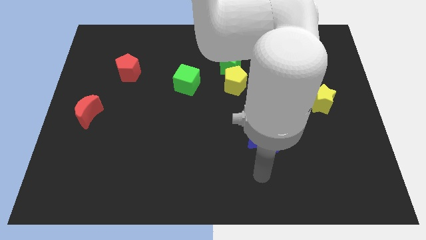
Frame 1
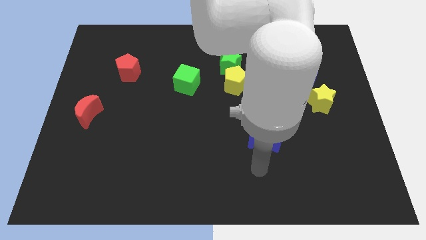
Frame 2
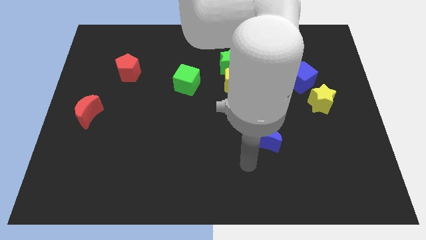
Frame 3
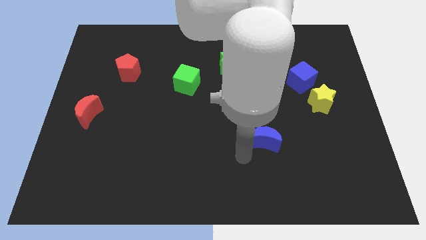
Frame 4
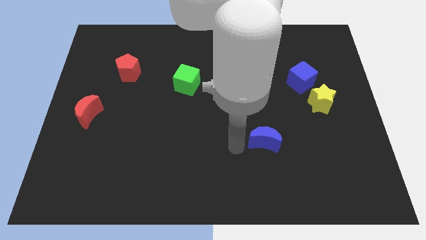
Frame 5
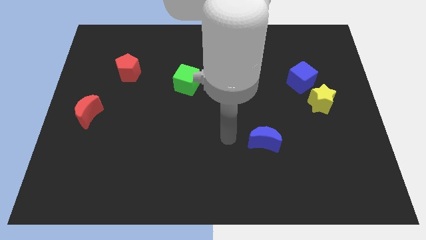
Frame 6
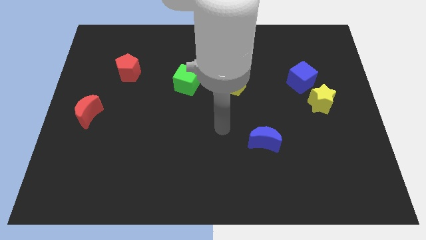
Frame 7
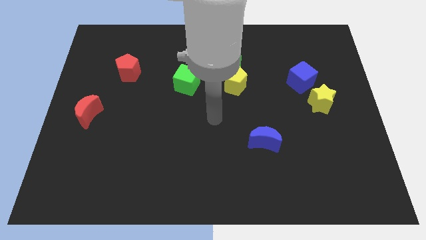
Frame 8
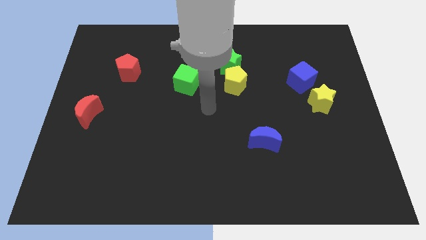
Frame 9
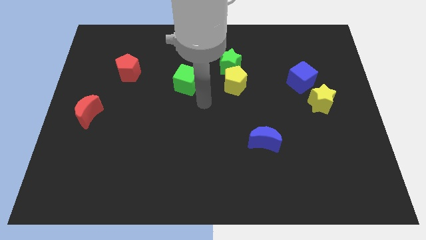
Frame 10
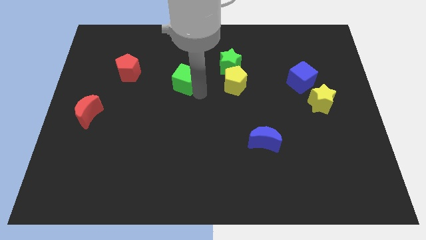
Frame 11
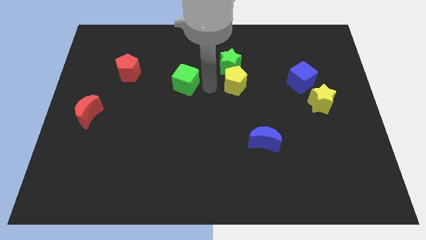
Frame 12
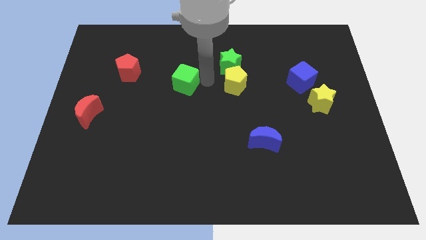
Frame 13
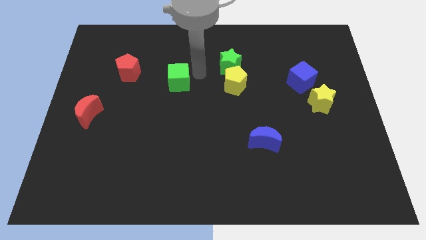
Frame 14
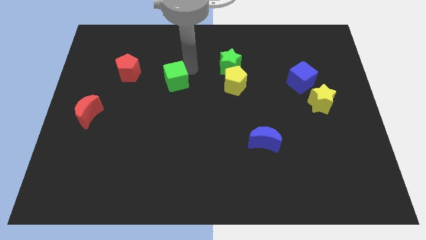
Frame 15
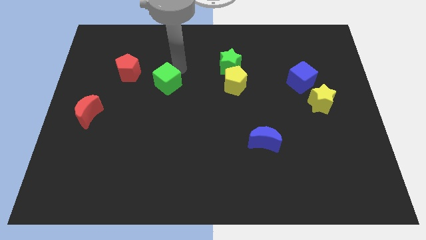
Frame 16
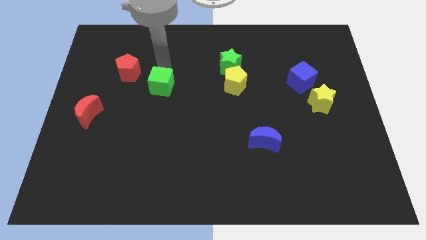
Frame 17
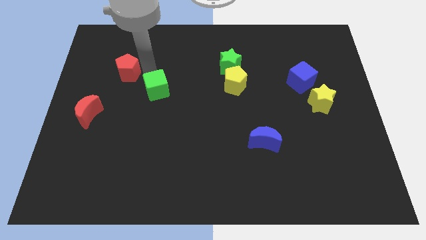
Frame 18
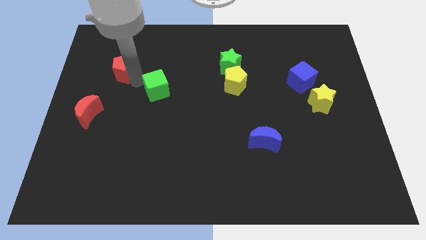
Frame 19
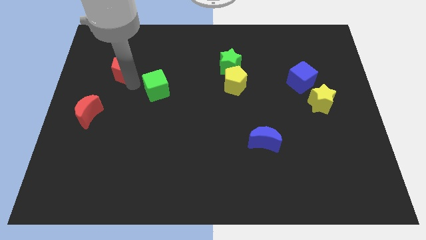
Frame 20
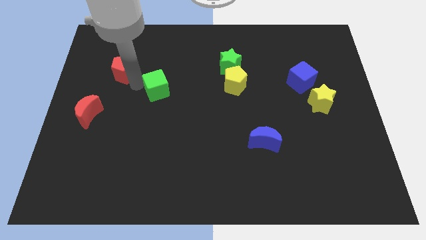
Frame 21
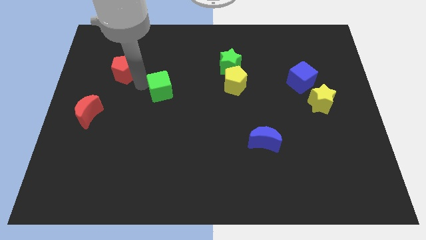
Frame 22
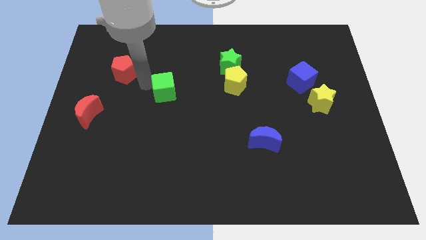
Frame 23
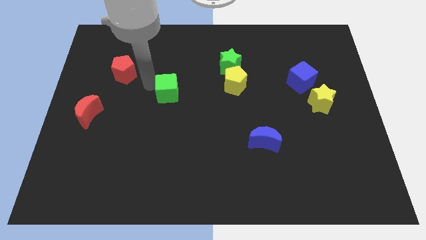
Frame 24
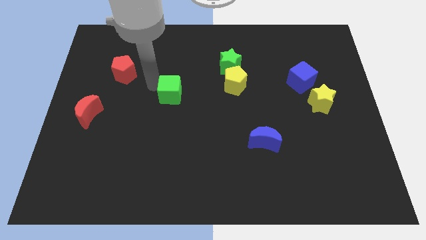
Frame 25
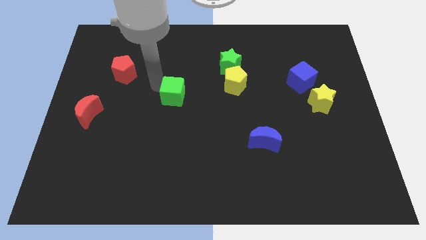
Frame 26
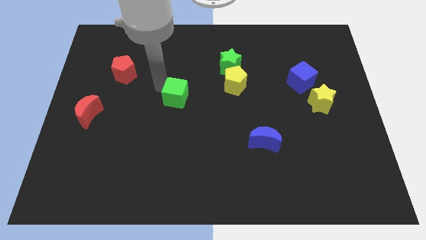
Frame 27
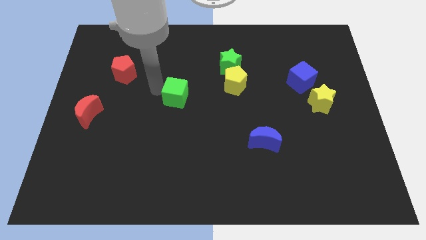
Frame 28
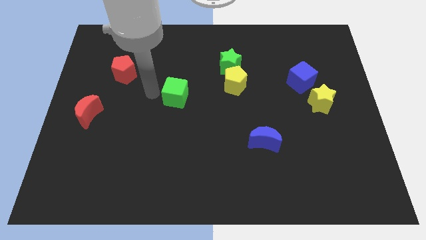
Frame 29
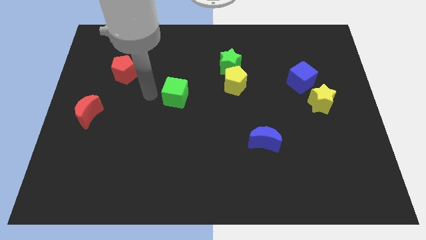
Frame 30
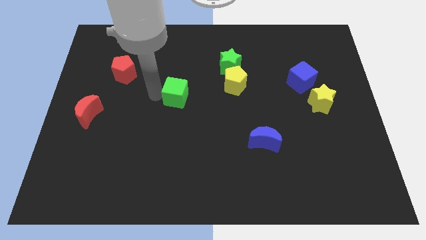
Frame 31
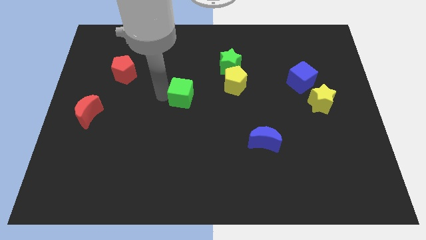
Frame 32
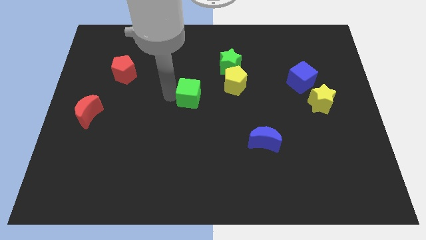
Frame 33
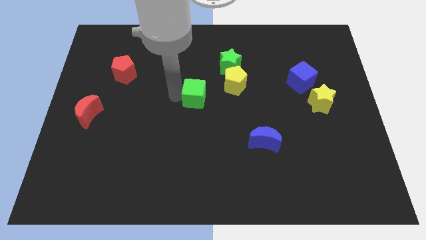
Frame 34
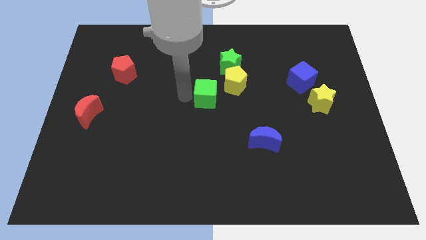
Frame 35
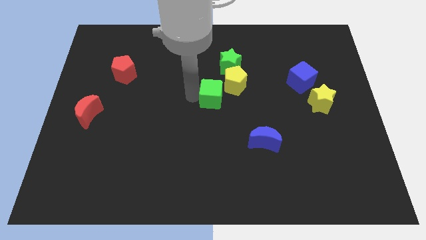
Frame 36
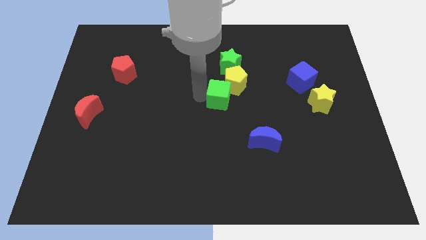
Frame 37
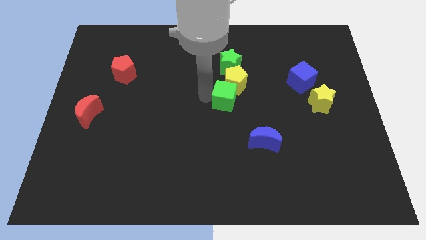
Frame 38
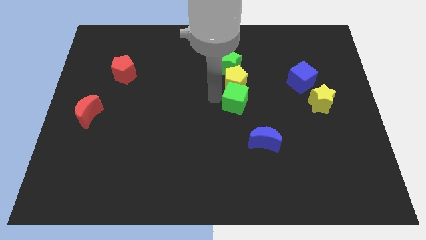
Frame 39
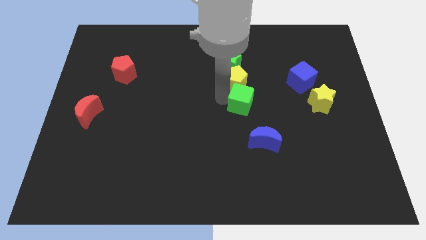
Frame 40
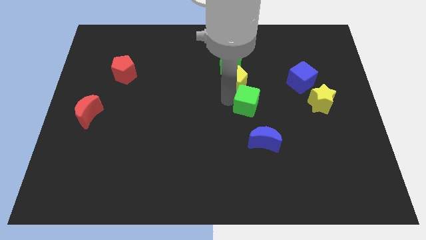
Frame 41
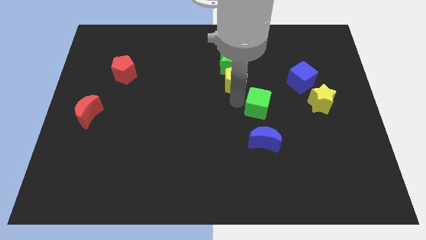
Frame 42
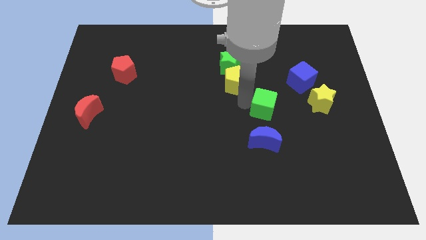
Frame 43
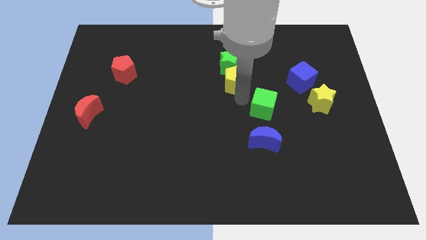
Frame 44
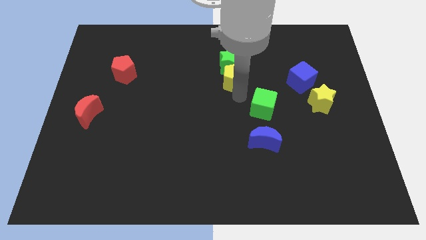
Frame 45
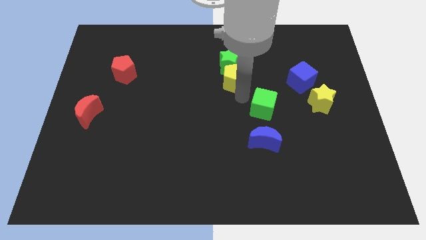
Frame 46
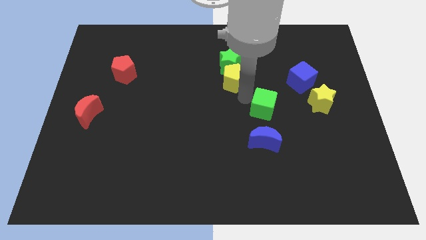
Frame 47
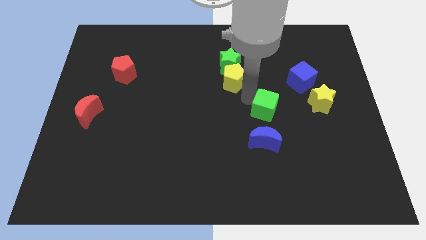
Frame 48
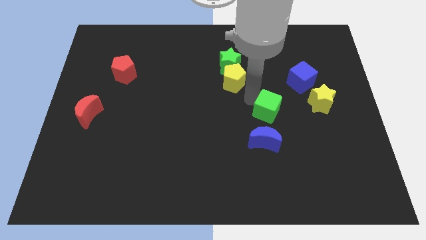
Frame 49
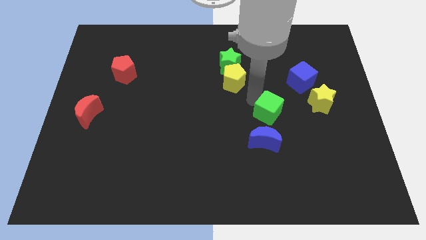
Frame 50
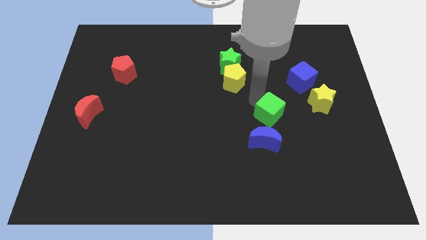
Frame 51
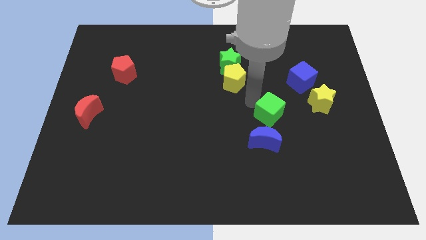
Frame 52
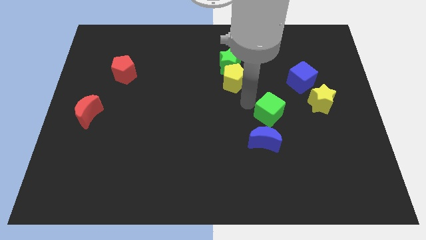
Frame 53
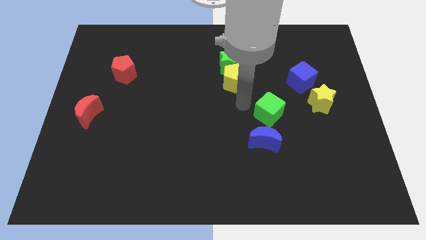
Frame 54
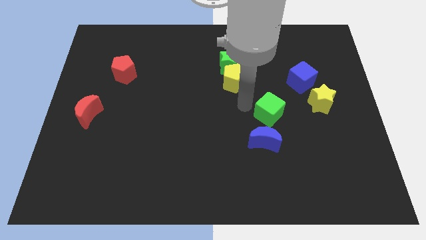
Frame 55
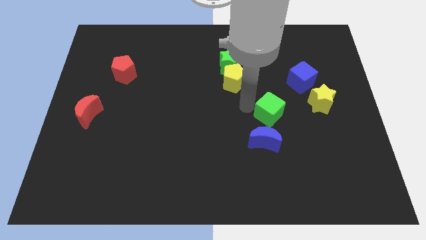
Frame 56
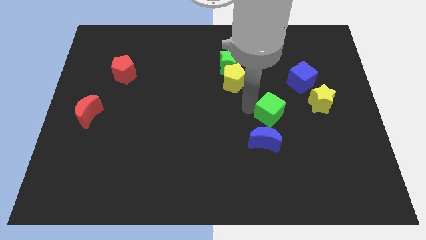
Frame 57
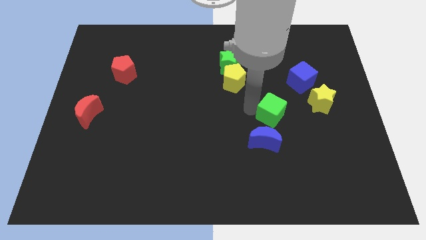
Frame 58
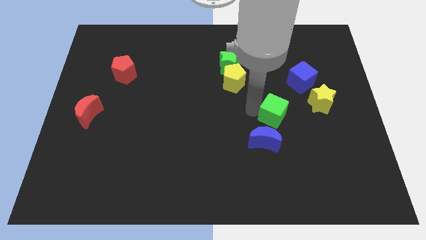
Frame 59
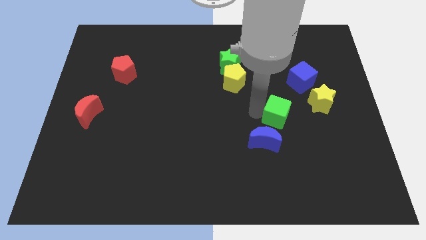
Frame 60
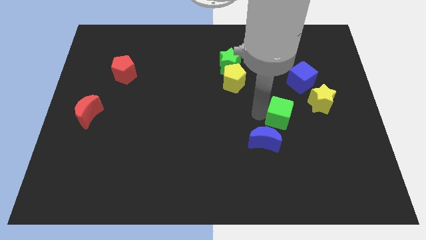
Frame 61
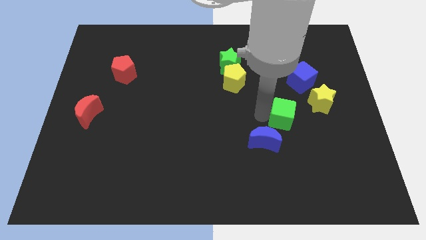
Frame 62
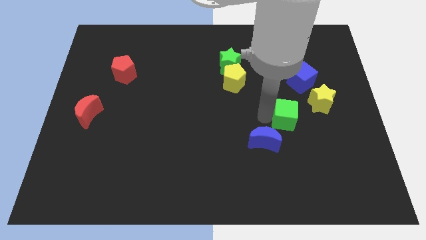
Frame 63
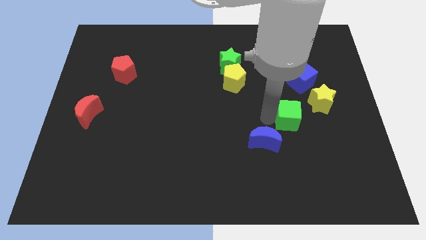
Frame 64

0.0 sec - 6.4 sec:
move the green cube below the blue cube
